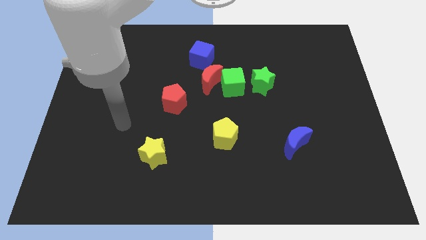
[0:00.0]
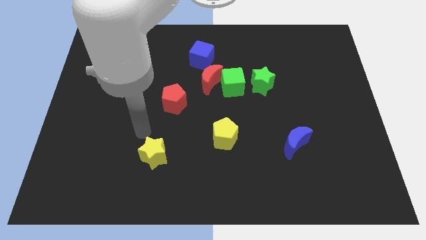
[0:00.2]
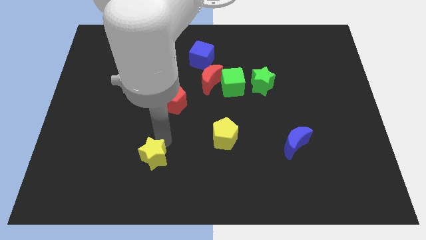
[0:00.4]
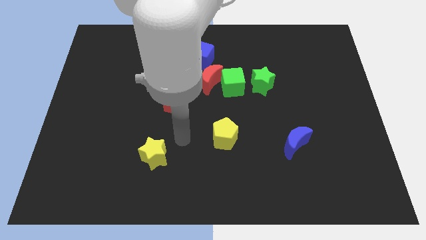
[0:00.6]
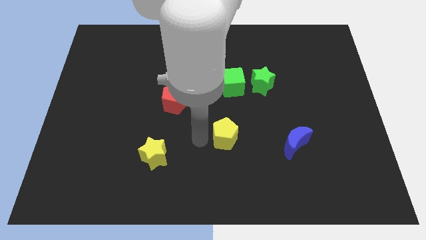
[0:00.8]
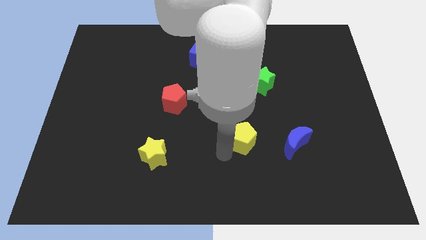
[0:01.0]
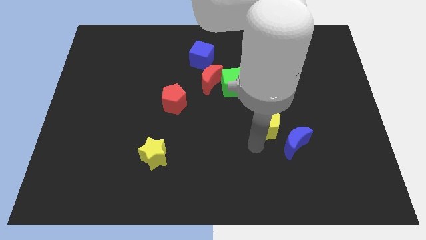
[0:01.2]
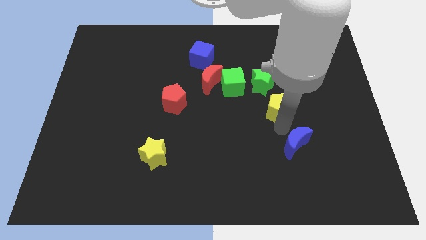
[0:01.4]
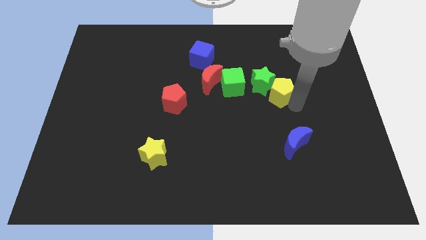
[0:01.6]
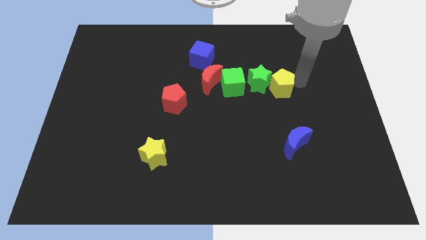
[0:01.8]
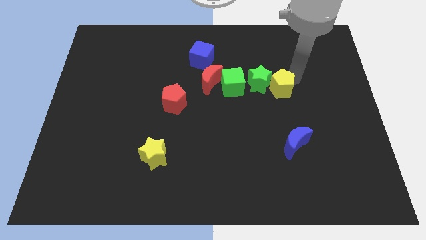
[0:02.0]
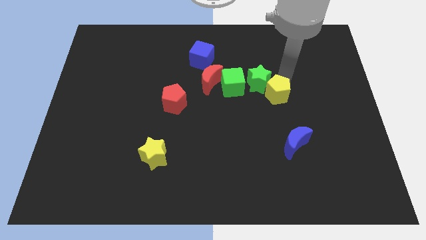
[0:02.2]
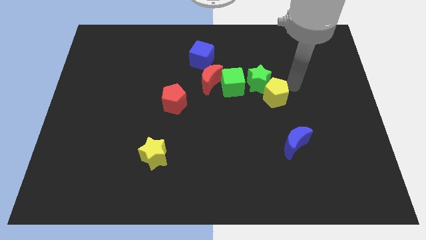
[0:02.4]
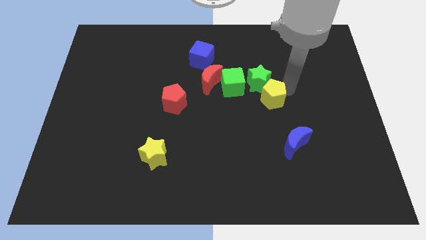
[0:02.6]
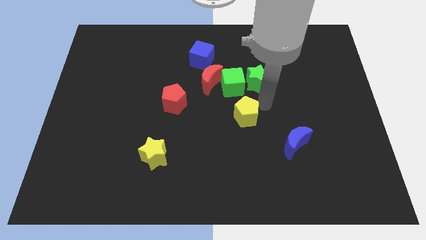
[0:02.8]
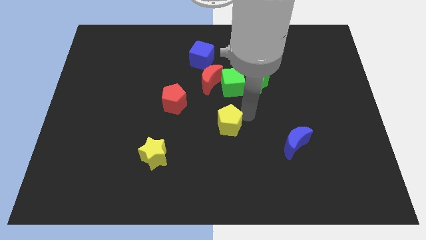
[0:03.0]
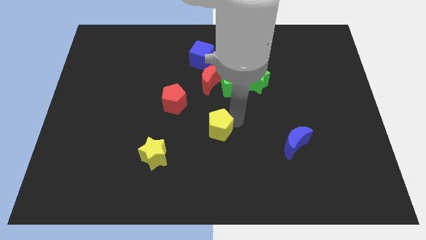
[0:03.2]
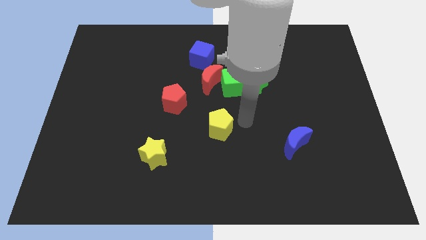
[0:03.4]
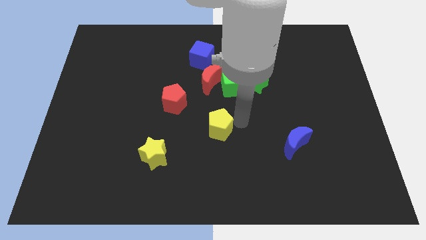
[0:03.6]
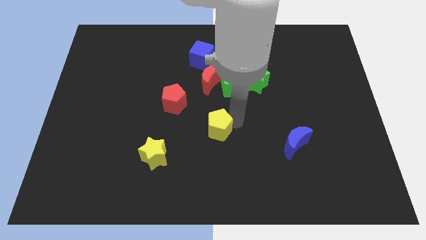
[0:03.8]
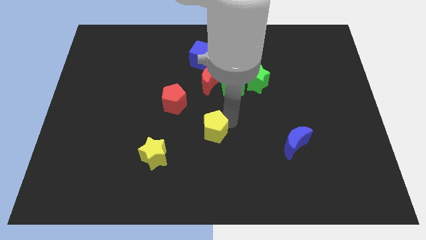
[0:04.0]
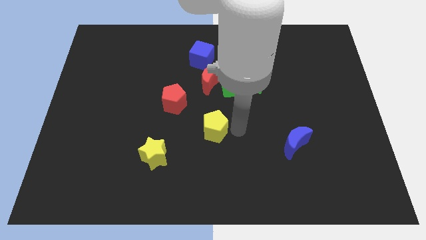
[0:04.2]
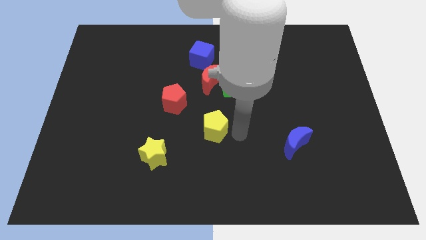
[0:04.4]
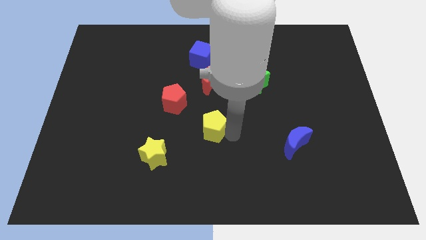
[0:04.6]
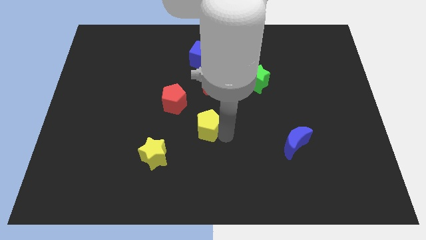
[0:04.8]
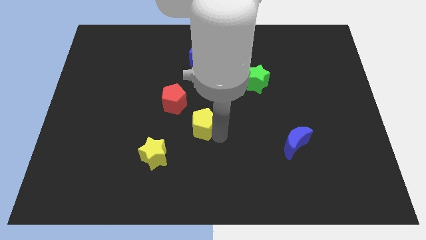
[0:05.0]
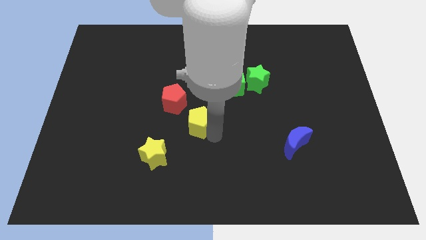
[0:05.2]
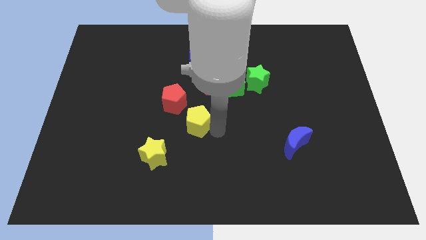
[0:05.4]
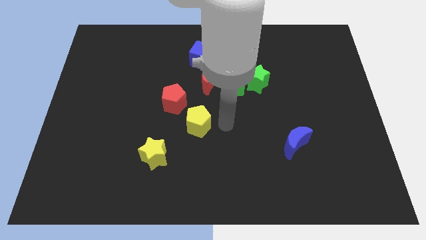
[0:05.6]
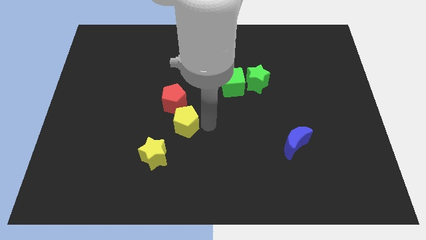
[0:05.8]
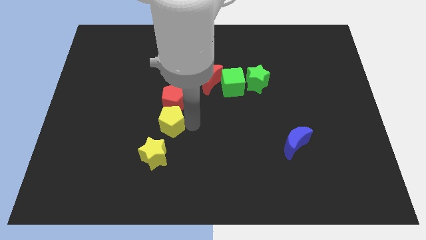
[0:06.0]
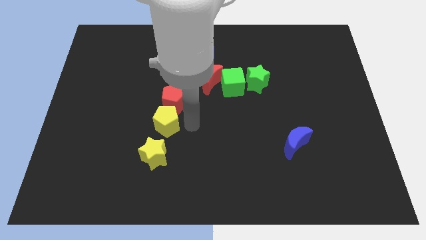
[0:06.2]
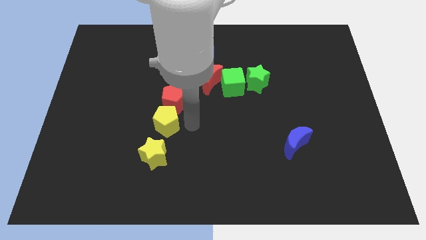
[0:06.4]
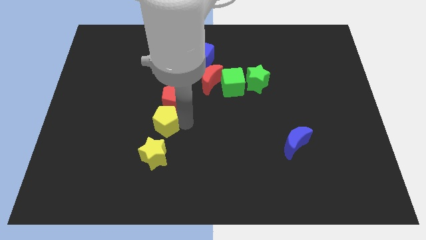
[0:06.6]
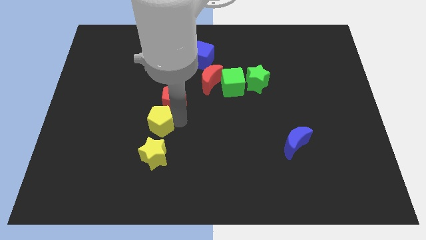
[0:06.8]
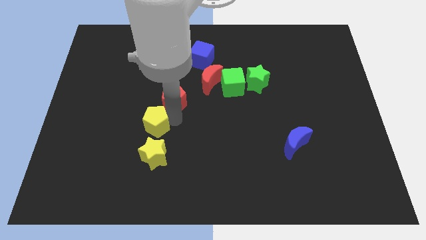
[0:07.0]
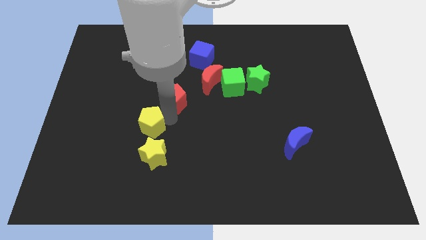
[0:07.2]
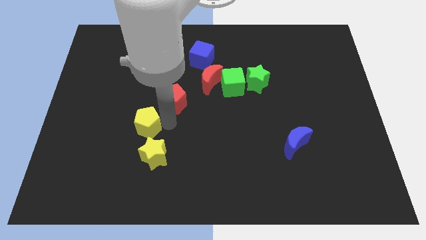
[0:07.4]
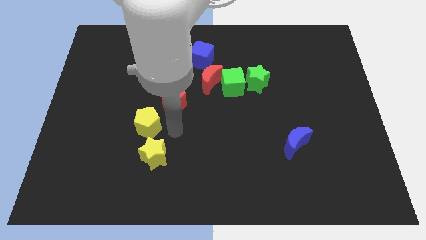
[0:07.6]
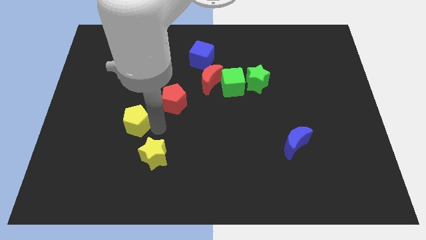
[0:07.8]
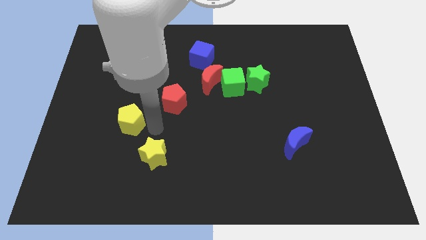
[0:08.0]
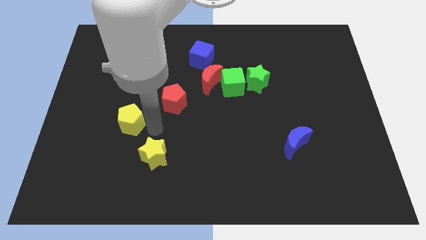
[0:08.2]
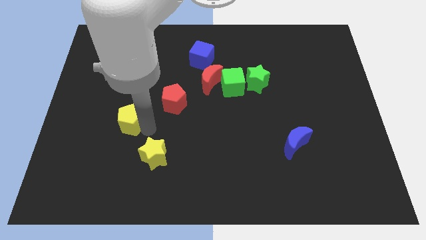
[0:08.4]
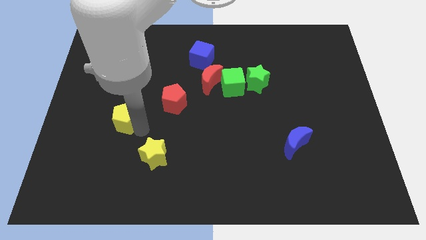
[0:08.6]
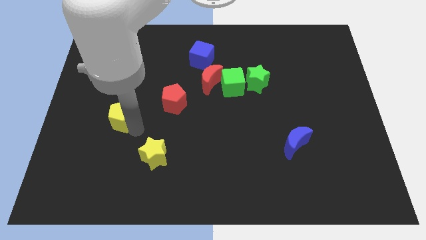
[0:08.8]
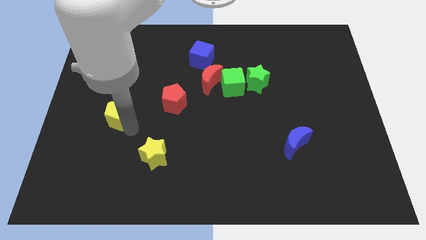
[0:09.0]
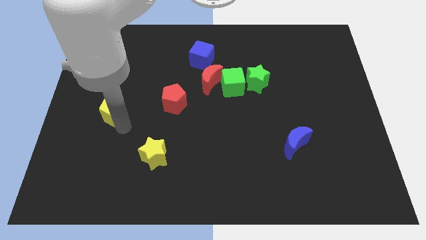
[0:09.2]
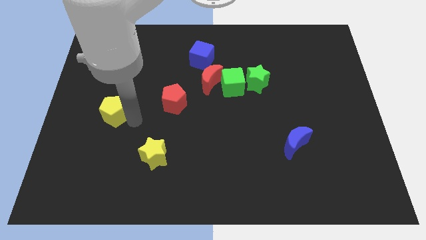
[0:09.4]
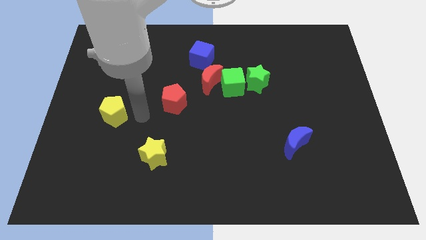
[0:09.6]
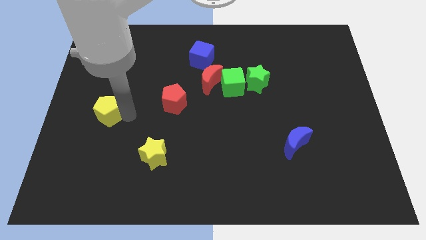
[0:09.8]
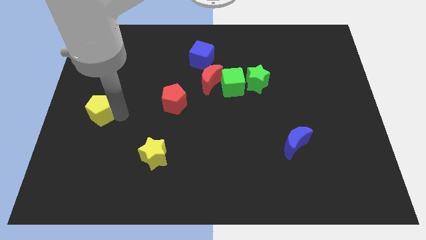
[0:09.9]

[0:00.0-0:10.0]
push the yellow pentagon to the left side
